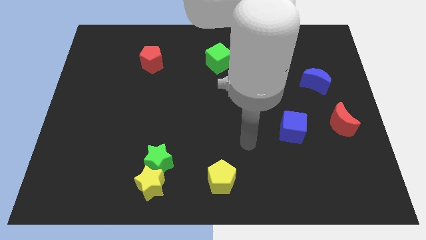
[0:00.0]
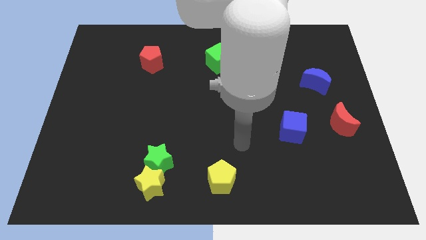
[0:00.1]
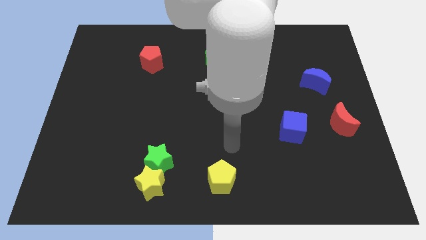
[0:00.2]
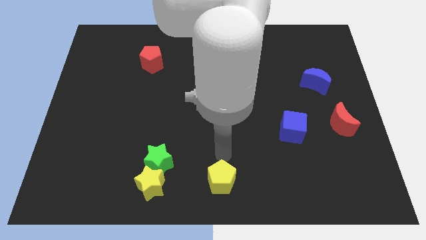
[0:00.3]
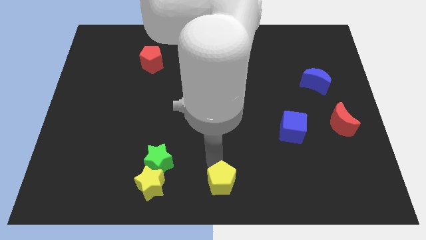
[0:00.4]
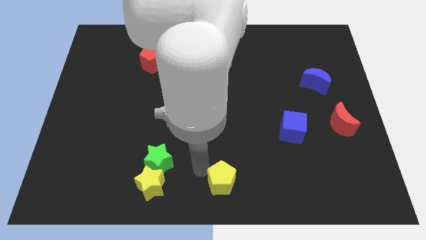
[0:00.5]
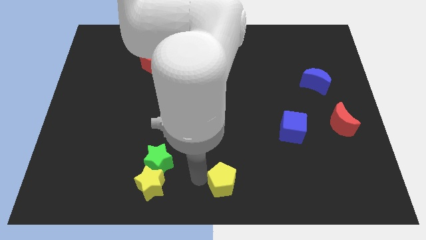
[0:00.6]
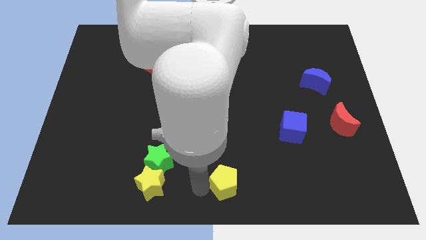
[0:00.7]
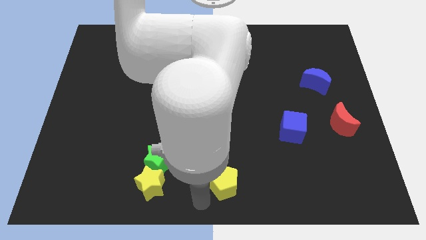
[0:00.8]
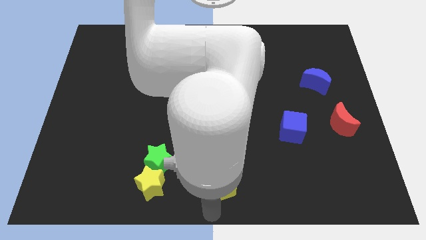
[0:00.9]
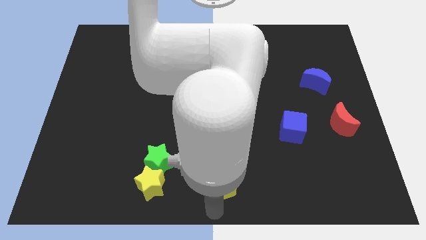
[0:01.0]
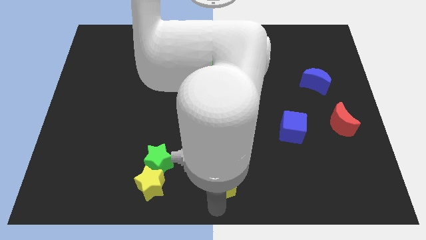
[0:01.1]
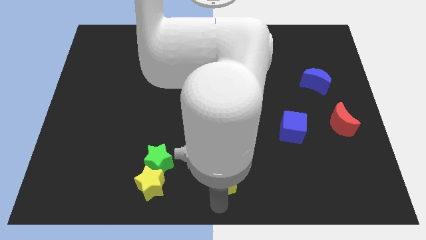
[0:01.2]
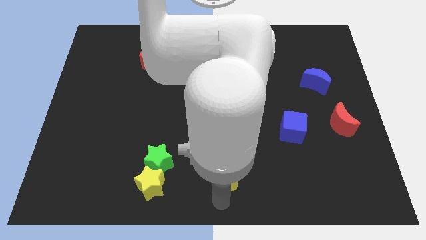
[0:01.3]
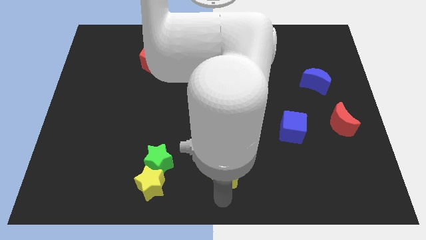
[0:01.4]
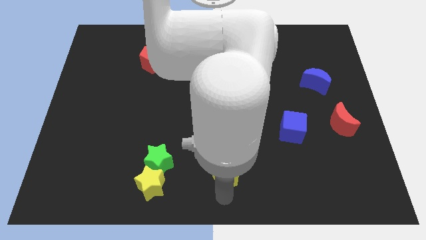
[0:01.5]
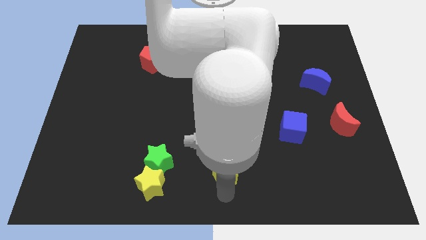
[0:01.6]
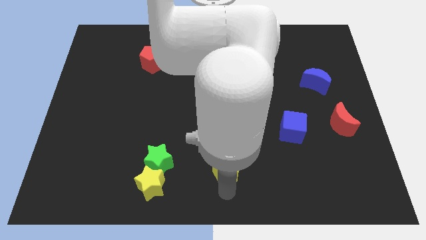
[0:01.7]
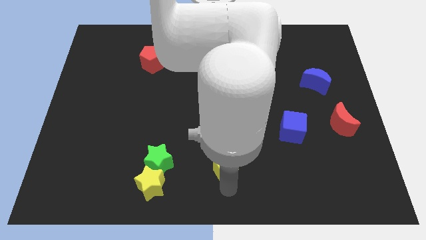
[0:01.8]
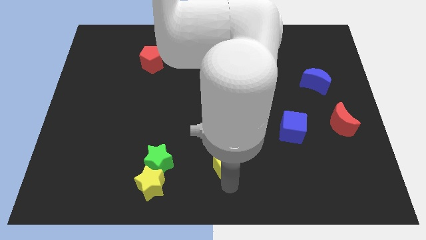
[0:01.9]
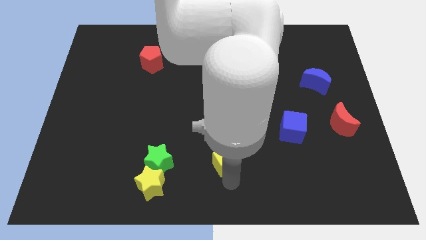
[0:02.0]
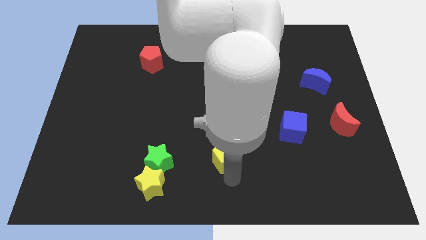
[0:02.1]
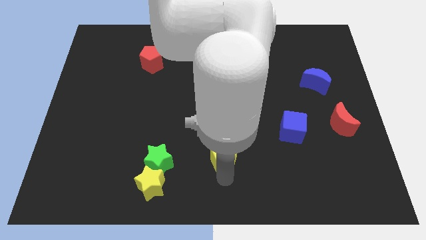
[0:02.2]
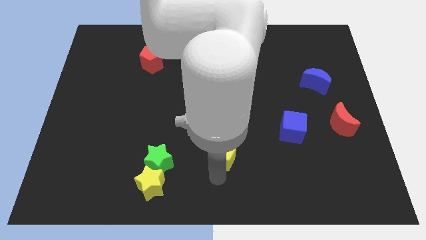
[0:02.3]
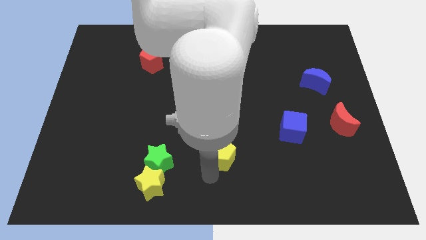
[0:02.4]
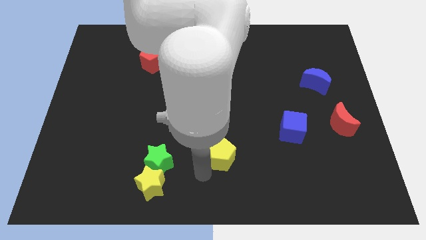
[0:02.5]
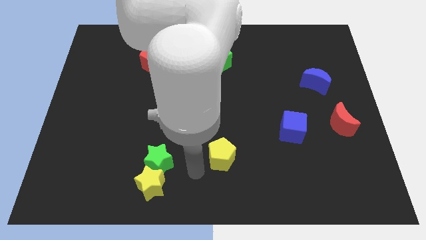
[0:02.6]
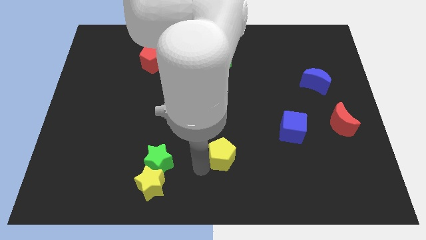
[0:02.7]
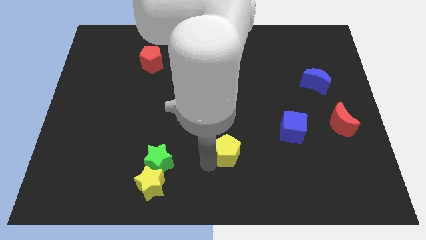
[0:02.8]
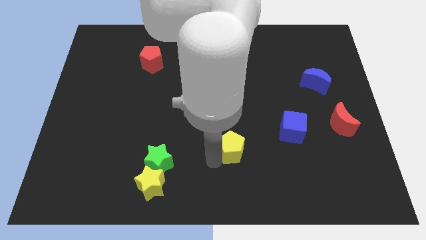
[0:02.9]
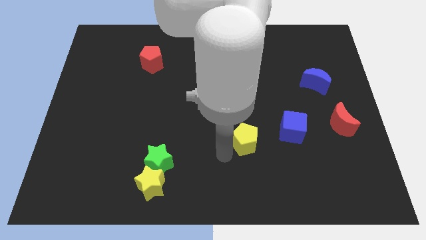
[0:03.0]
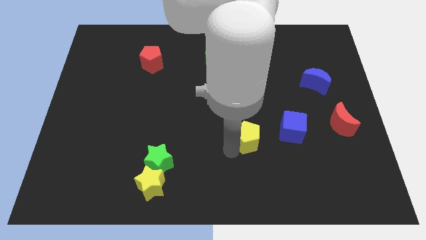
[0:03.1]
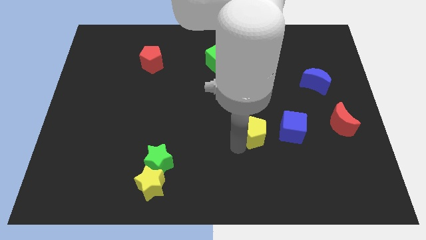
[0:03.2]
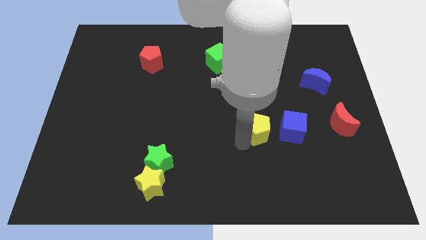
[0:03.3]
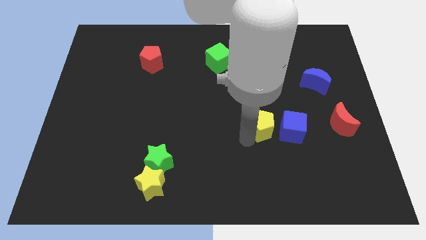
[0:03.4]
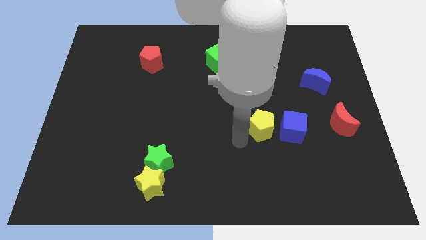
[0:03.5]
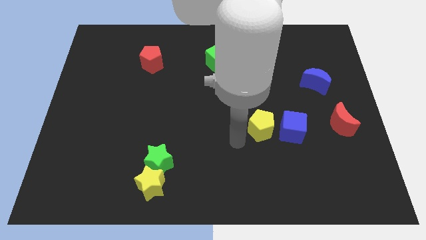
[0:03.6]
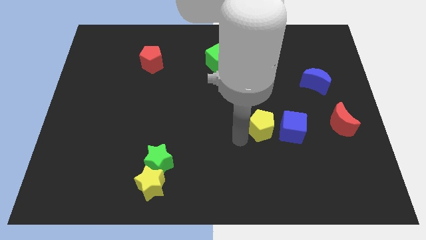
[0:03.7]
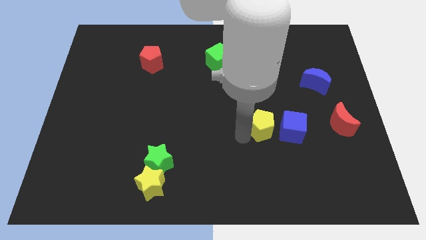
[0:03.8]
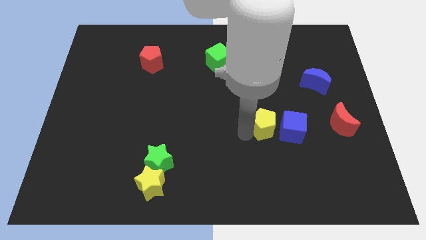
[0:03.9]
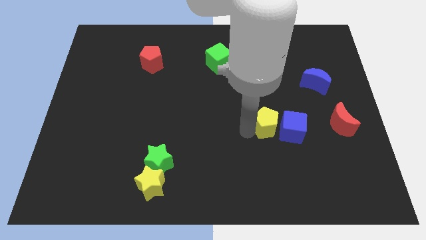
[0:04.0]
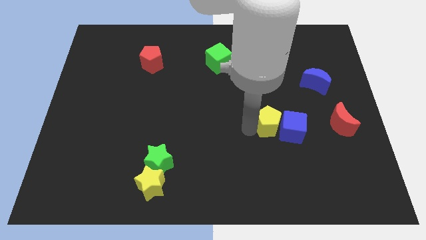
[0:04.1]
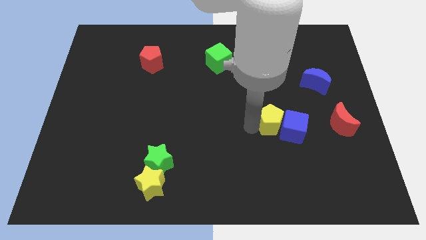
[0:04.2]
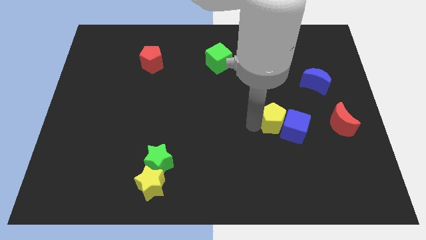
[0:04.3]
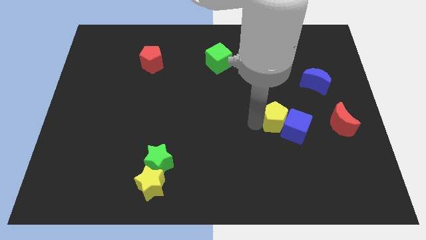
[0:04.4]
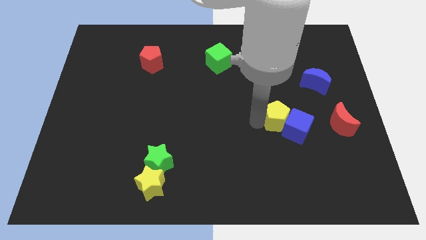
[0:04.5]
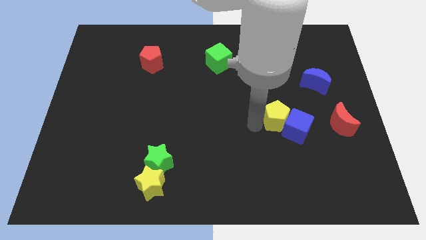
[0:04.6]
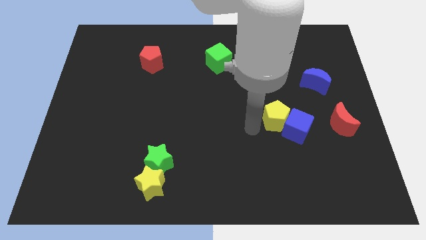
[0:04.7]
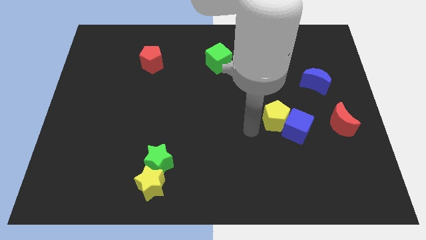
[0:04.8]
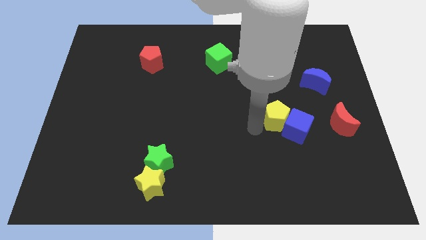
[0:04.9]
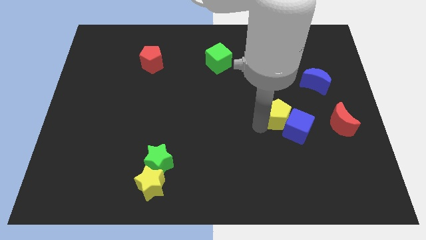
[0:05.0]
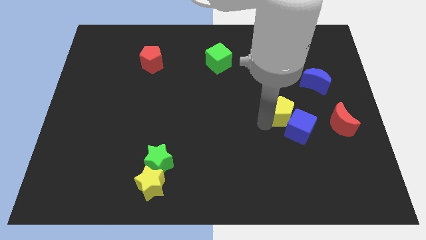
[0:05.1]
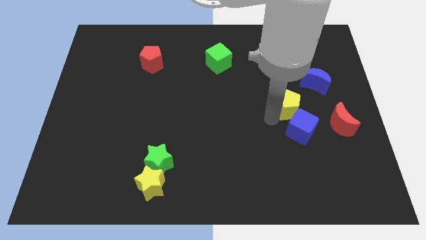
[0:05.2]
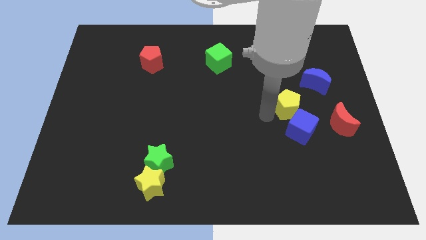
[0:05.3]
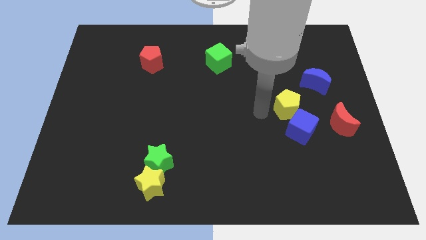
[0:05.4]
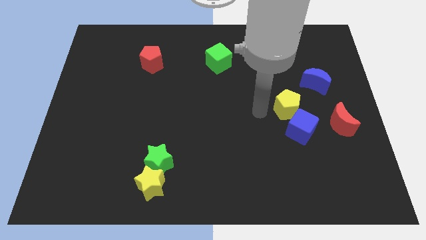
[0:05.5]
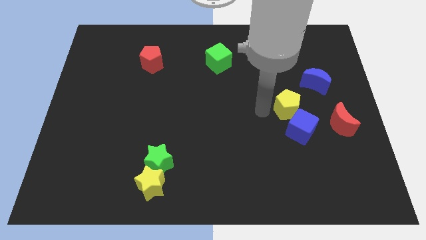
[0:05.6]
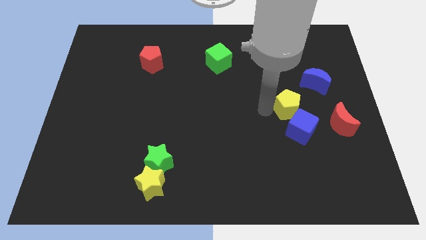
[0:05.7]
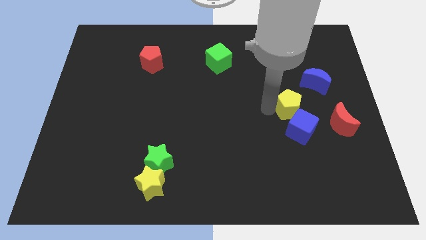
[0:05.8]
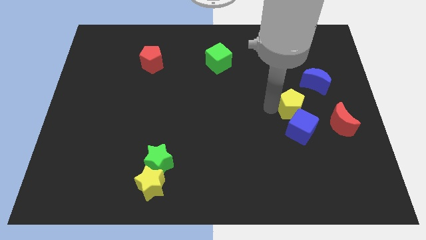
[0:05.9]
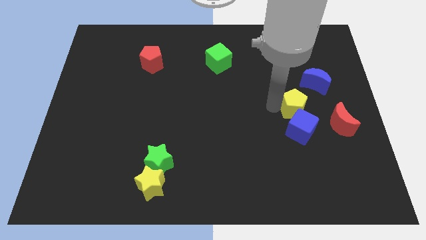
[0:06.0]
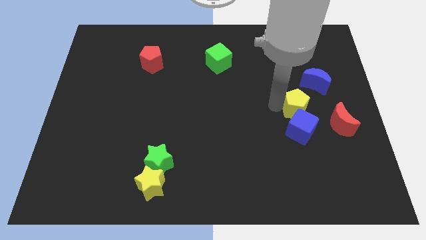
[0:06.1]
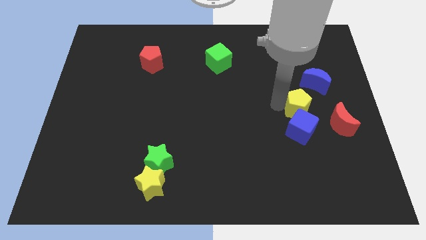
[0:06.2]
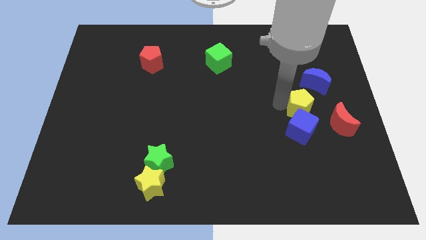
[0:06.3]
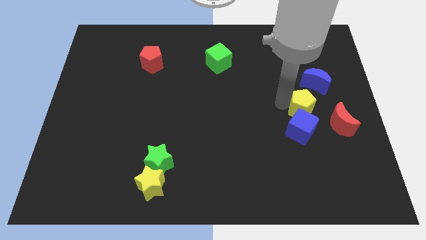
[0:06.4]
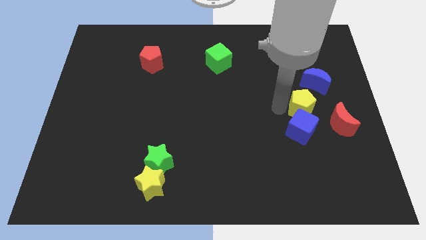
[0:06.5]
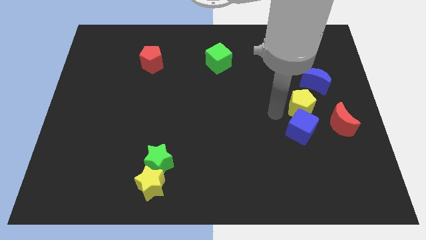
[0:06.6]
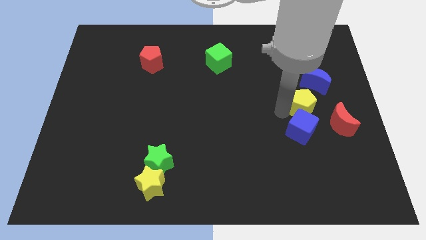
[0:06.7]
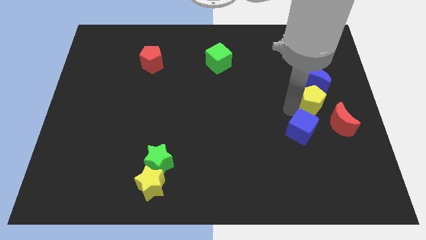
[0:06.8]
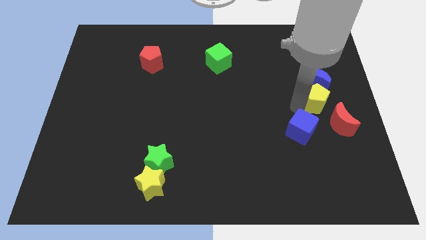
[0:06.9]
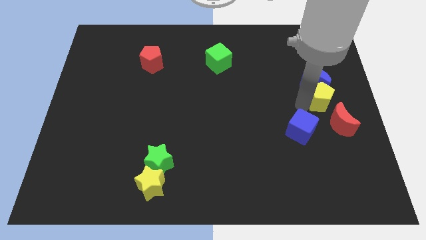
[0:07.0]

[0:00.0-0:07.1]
slide the yellow pentagon to the right side of the board
